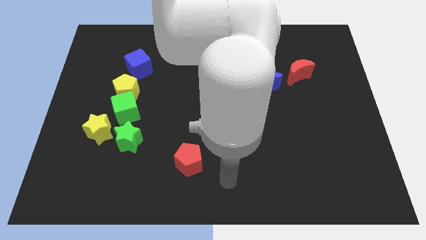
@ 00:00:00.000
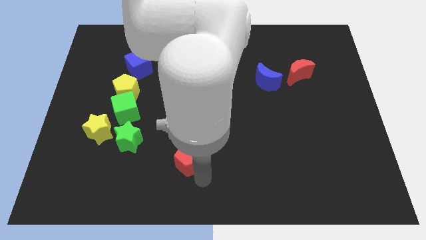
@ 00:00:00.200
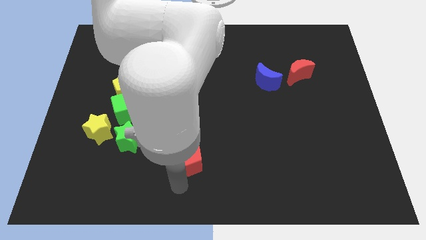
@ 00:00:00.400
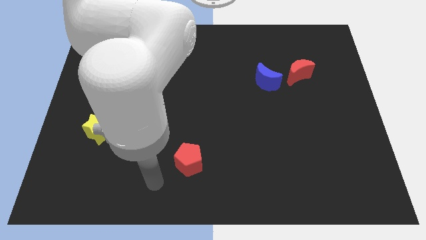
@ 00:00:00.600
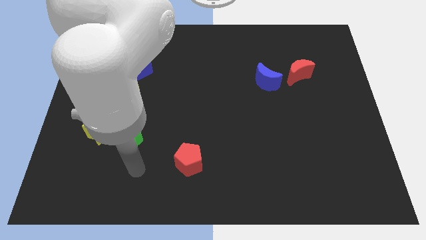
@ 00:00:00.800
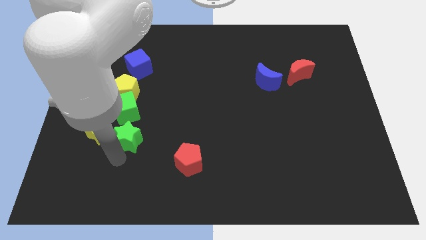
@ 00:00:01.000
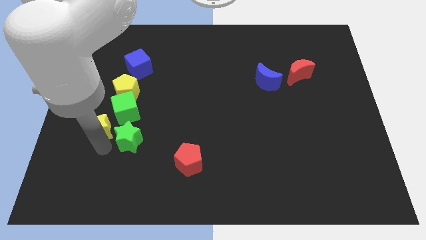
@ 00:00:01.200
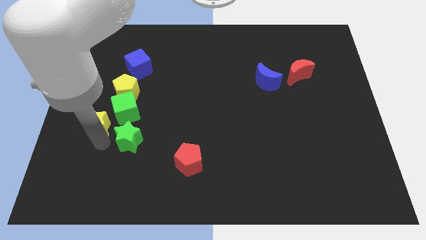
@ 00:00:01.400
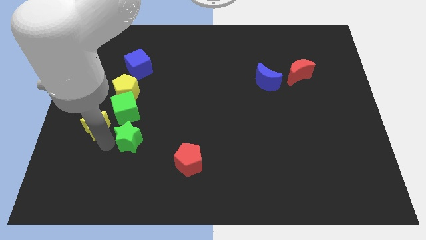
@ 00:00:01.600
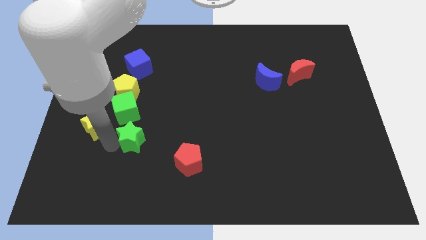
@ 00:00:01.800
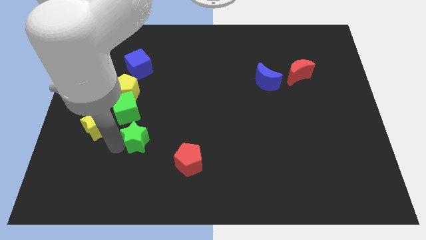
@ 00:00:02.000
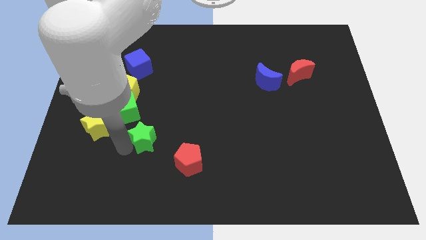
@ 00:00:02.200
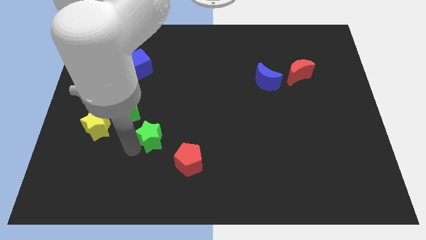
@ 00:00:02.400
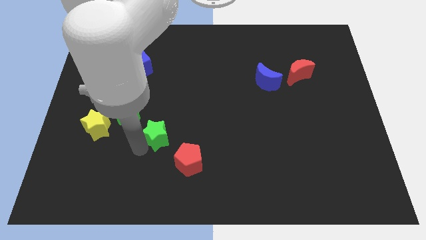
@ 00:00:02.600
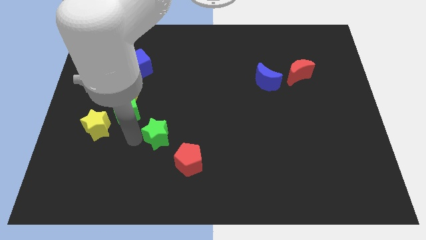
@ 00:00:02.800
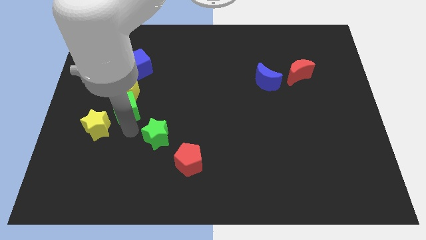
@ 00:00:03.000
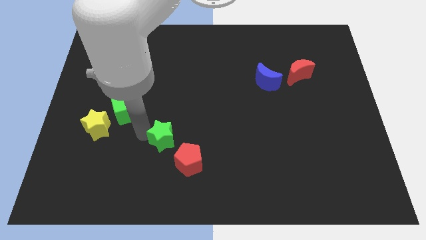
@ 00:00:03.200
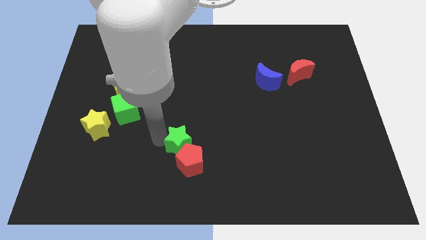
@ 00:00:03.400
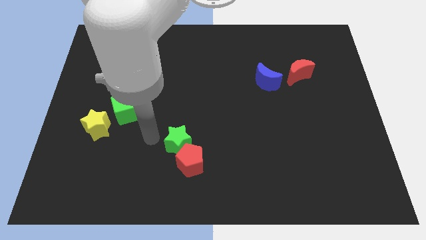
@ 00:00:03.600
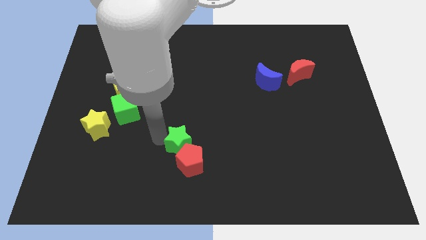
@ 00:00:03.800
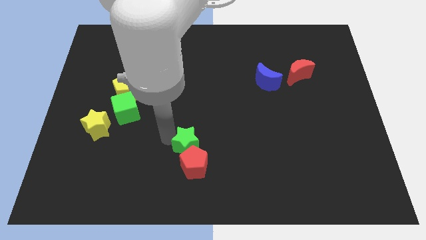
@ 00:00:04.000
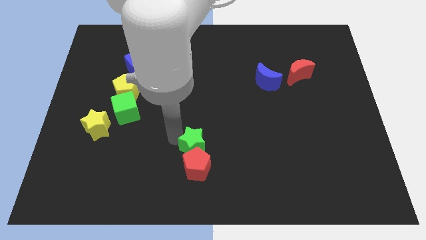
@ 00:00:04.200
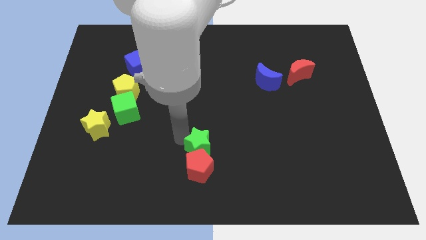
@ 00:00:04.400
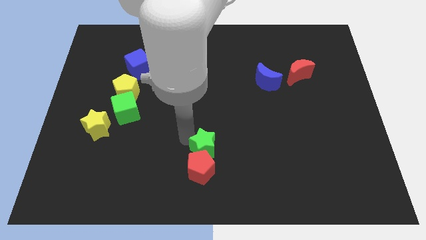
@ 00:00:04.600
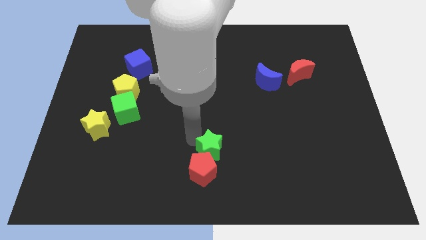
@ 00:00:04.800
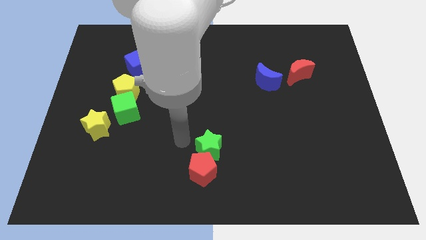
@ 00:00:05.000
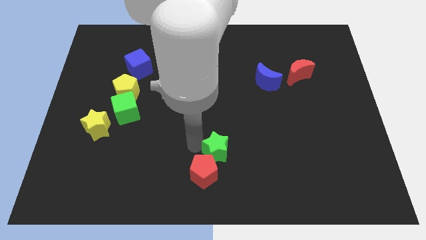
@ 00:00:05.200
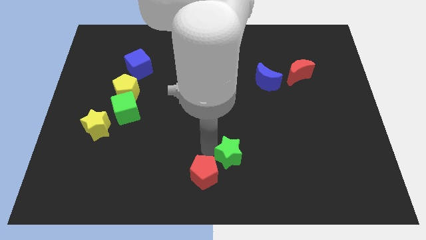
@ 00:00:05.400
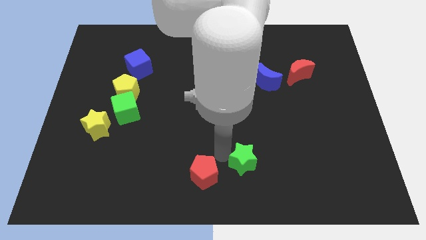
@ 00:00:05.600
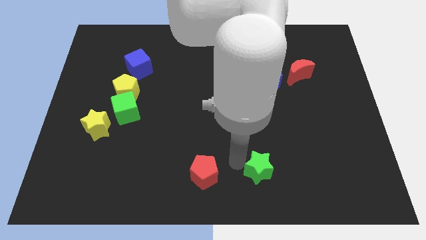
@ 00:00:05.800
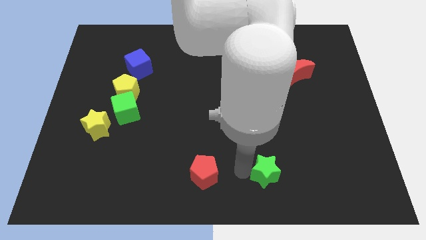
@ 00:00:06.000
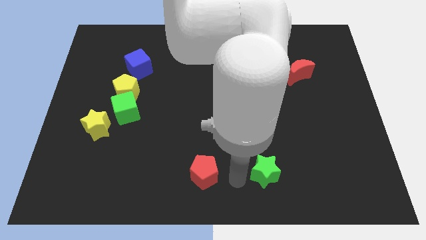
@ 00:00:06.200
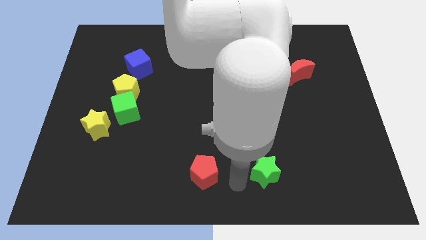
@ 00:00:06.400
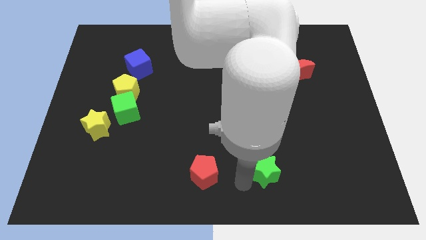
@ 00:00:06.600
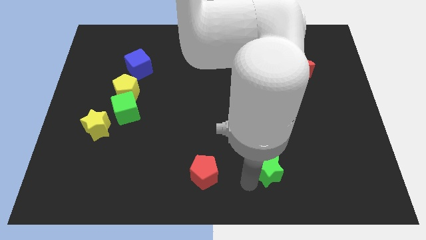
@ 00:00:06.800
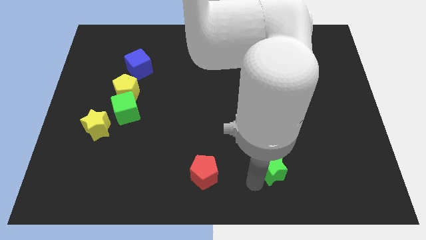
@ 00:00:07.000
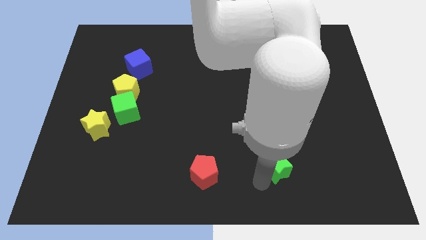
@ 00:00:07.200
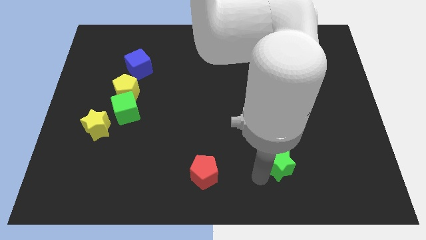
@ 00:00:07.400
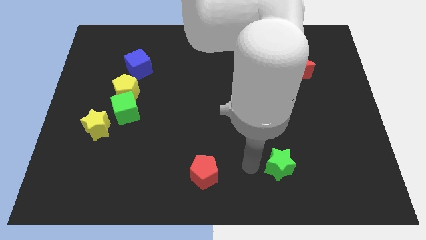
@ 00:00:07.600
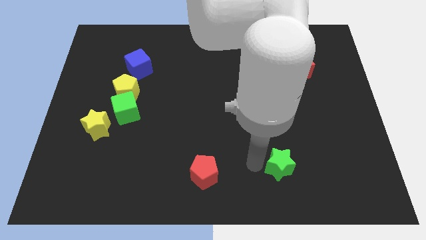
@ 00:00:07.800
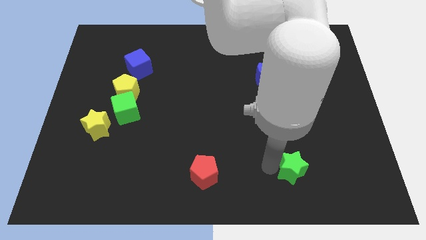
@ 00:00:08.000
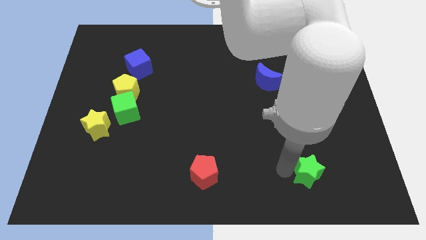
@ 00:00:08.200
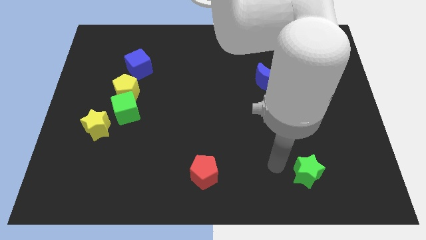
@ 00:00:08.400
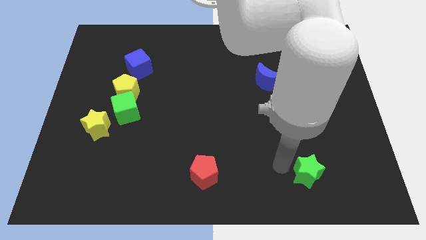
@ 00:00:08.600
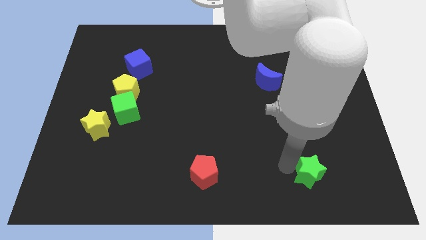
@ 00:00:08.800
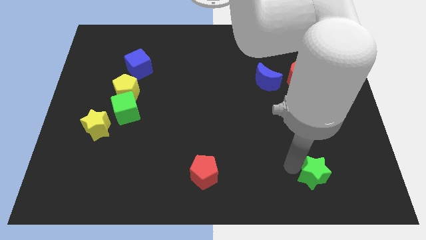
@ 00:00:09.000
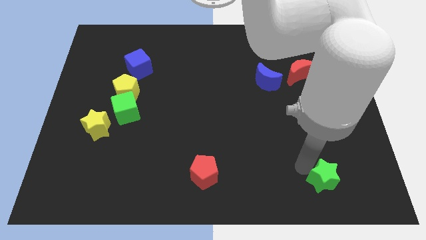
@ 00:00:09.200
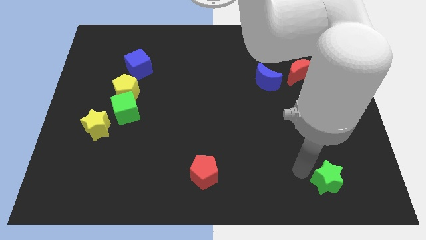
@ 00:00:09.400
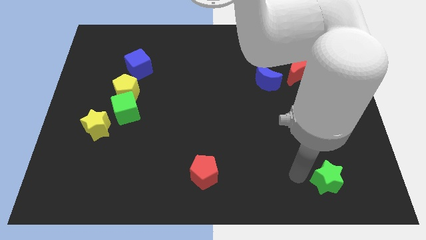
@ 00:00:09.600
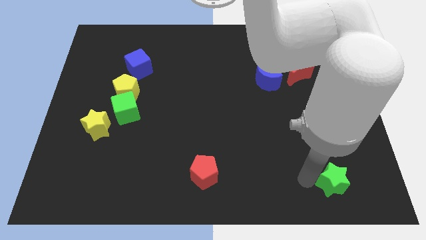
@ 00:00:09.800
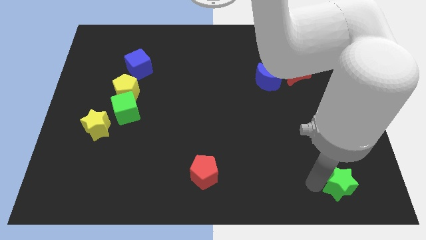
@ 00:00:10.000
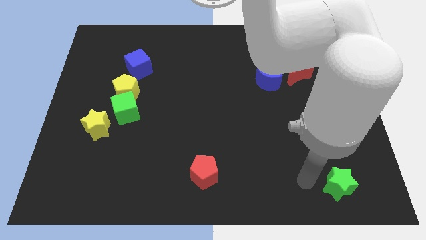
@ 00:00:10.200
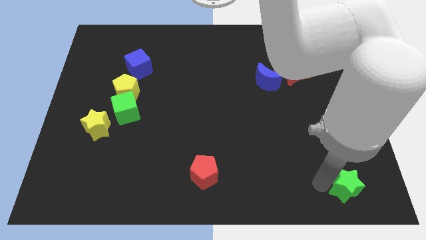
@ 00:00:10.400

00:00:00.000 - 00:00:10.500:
slide the green star to the bottom right corner

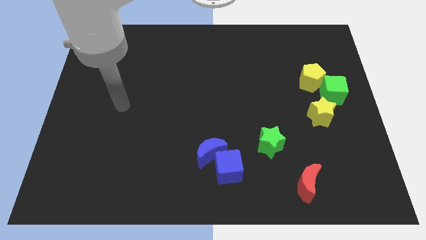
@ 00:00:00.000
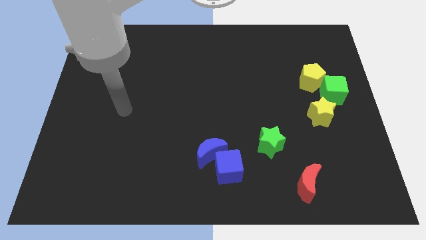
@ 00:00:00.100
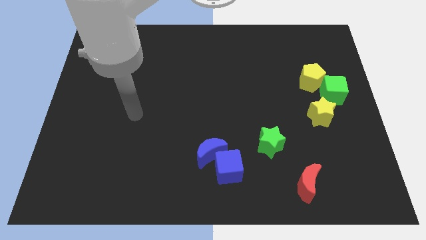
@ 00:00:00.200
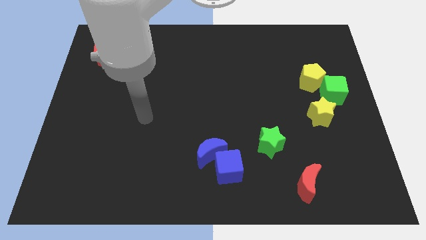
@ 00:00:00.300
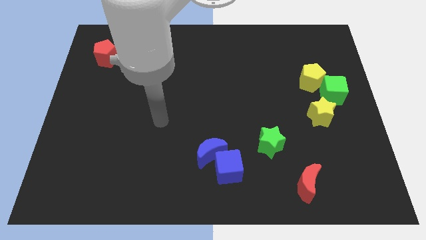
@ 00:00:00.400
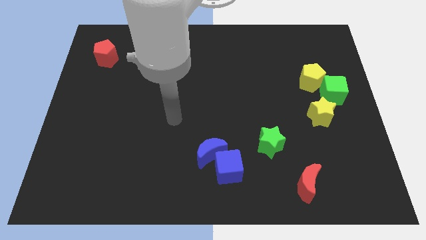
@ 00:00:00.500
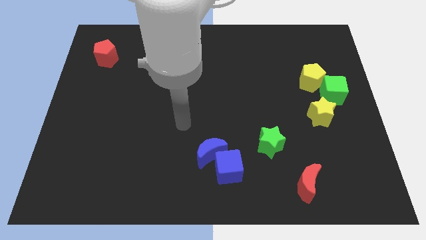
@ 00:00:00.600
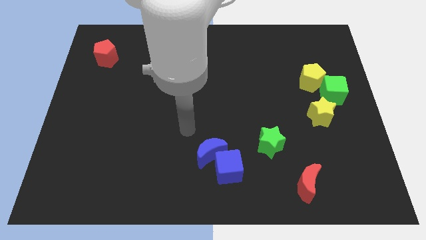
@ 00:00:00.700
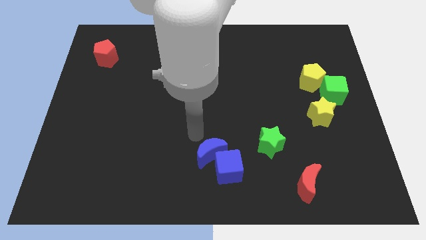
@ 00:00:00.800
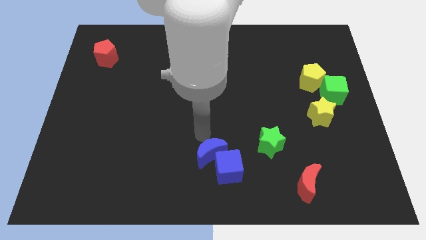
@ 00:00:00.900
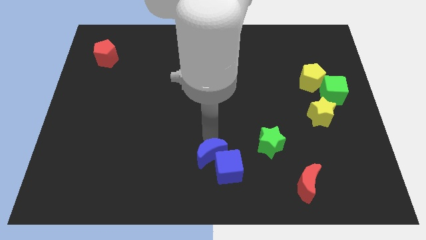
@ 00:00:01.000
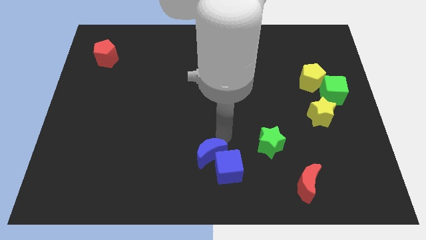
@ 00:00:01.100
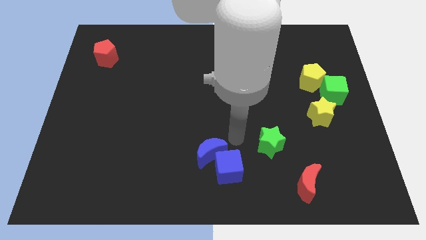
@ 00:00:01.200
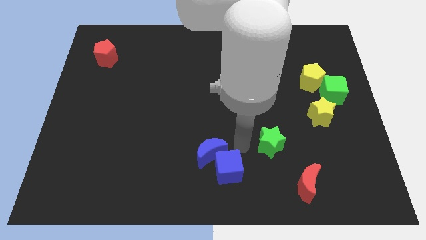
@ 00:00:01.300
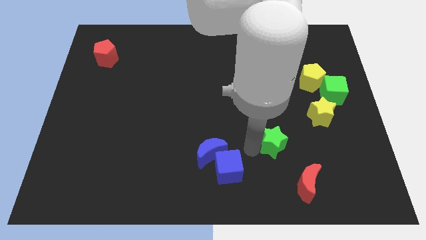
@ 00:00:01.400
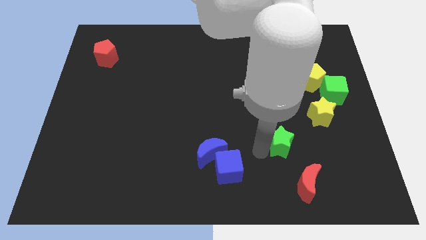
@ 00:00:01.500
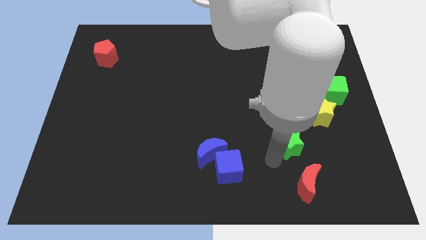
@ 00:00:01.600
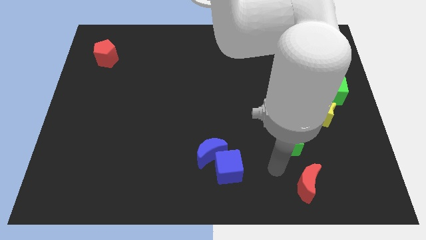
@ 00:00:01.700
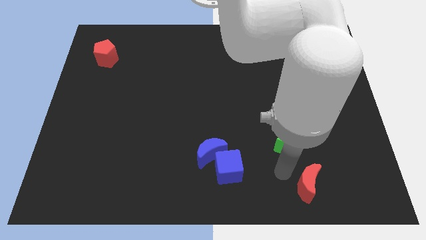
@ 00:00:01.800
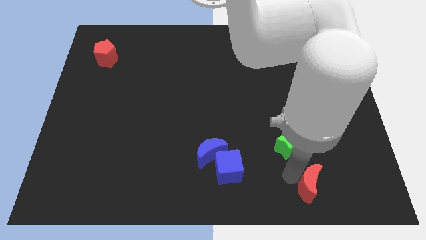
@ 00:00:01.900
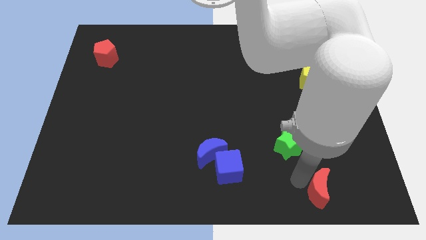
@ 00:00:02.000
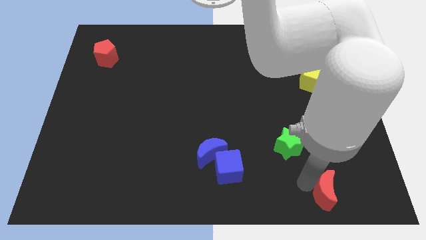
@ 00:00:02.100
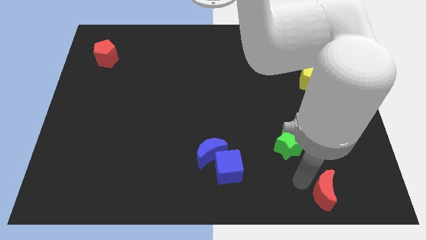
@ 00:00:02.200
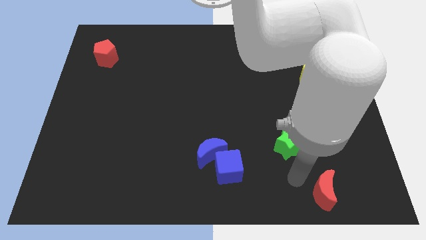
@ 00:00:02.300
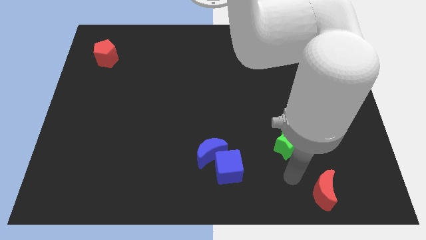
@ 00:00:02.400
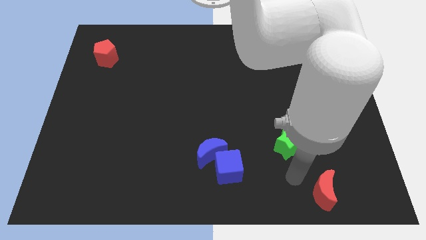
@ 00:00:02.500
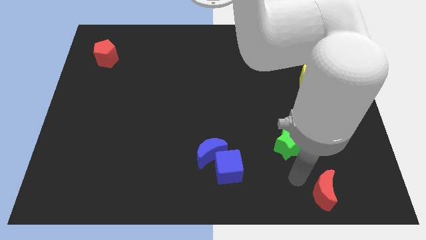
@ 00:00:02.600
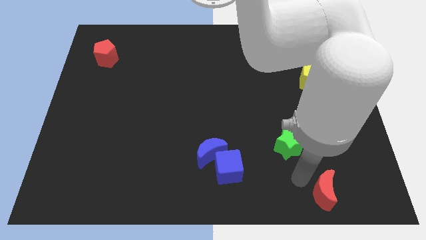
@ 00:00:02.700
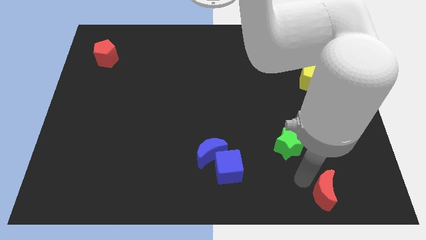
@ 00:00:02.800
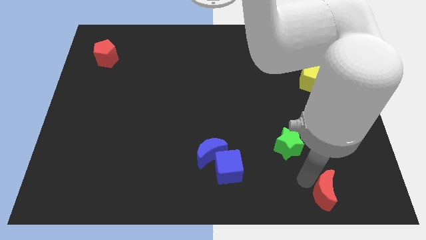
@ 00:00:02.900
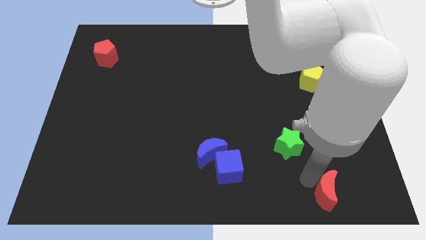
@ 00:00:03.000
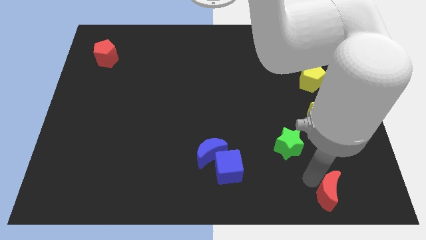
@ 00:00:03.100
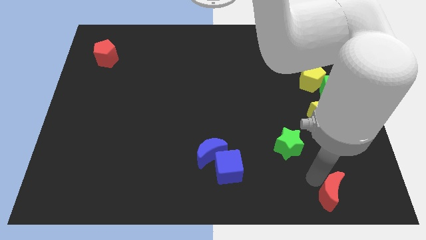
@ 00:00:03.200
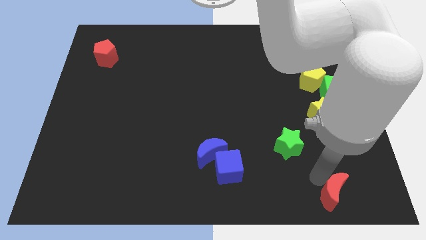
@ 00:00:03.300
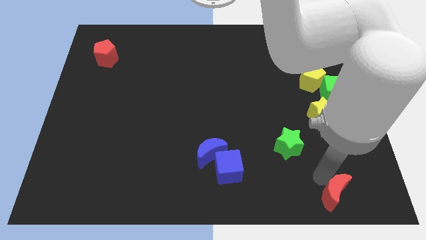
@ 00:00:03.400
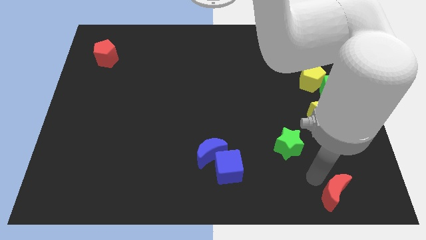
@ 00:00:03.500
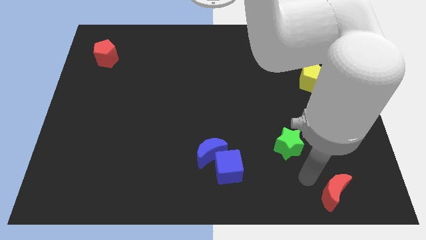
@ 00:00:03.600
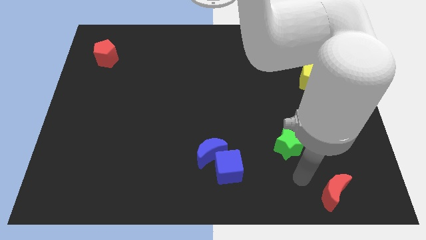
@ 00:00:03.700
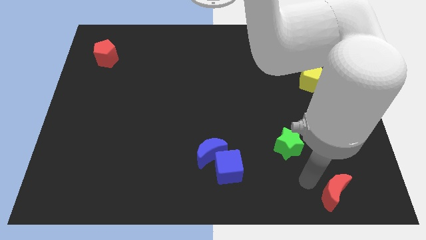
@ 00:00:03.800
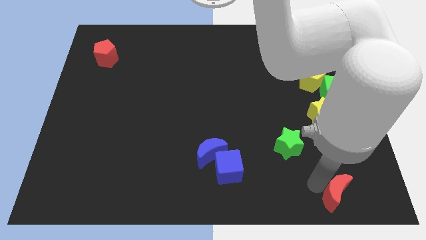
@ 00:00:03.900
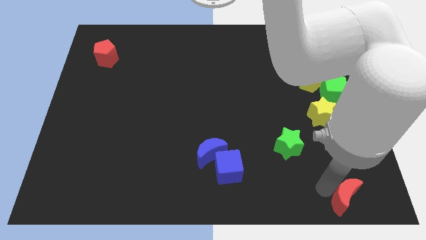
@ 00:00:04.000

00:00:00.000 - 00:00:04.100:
move the red moon to the bottom right
